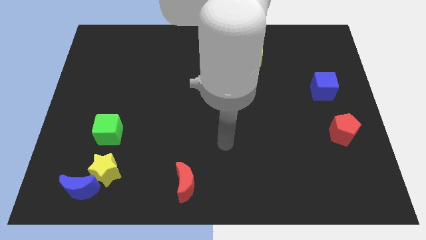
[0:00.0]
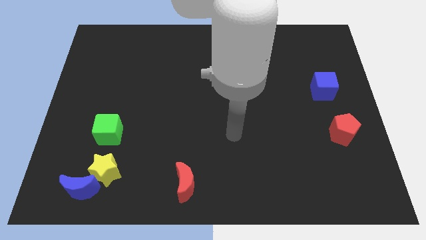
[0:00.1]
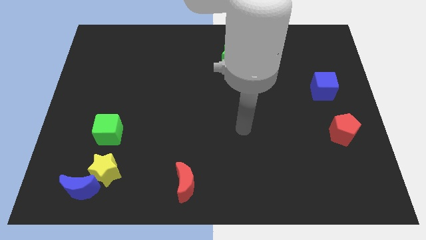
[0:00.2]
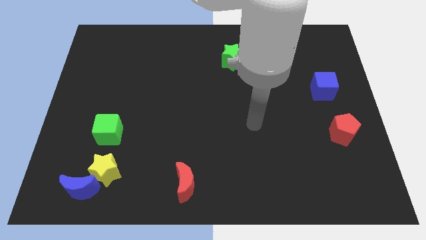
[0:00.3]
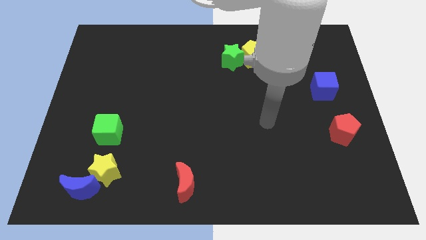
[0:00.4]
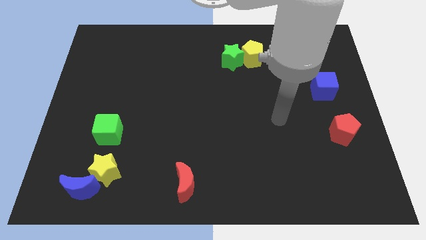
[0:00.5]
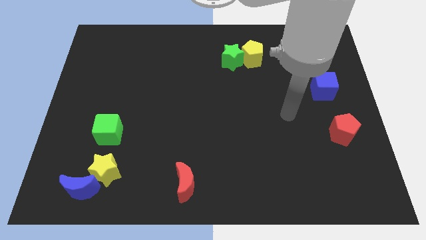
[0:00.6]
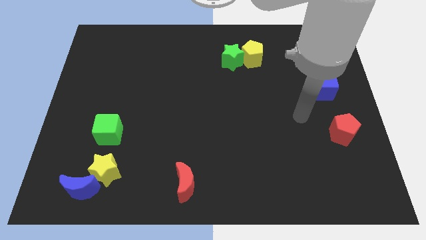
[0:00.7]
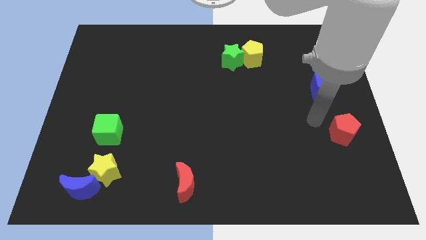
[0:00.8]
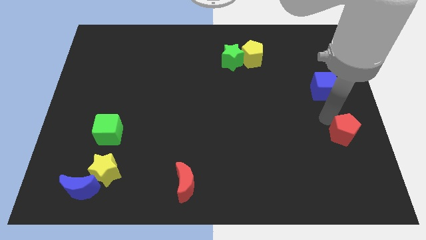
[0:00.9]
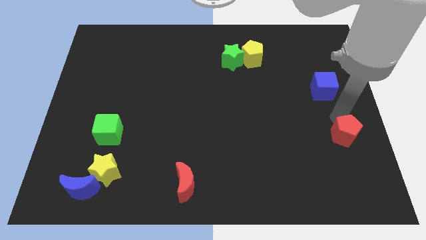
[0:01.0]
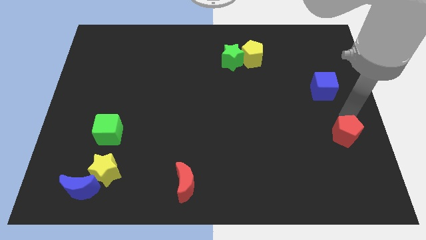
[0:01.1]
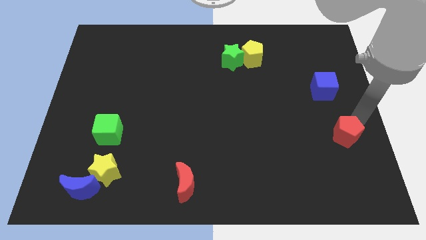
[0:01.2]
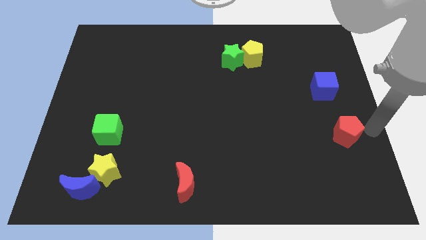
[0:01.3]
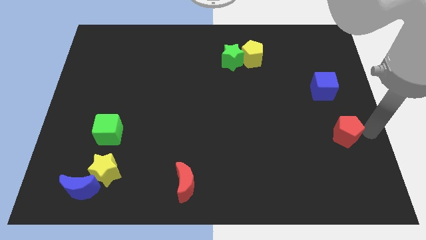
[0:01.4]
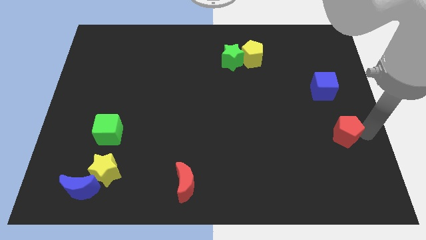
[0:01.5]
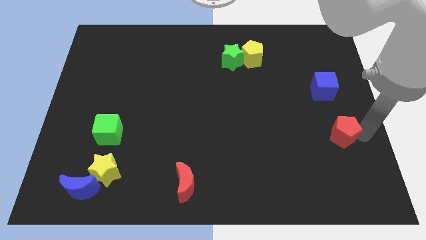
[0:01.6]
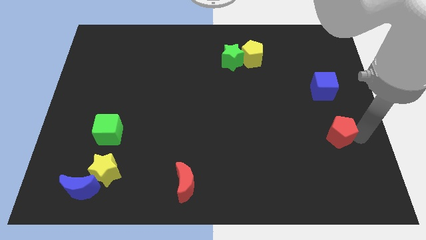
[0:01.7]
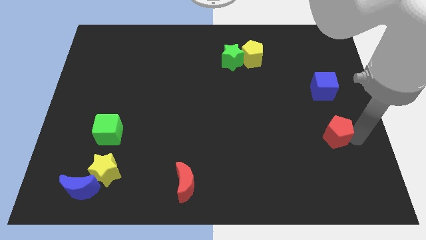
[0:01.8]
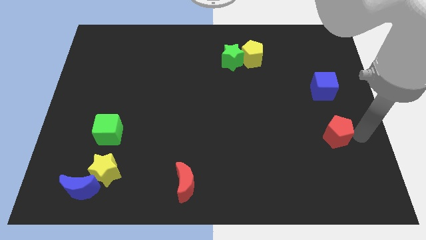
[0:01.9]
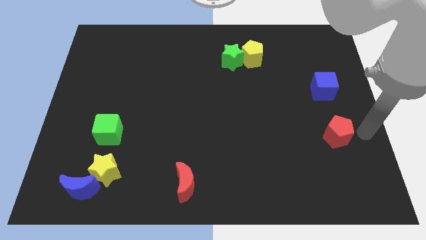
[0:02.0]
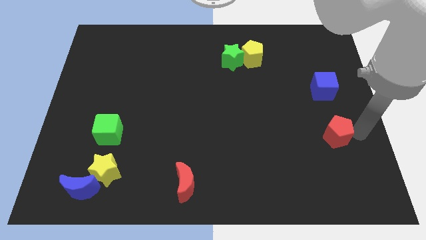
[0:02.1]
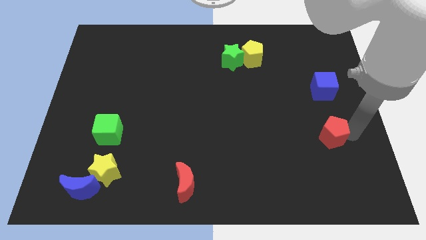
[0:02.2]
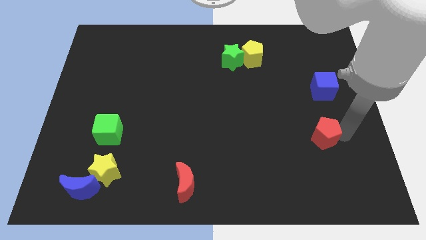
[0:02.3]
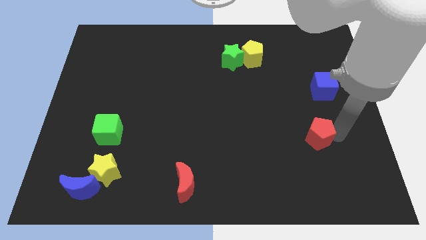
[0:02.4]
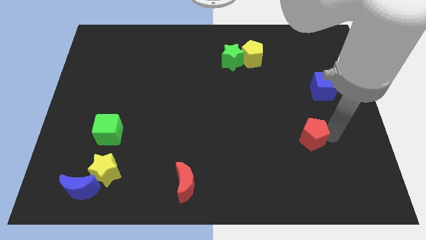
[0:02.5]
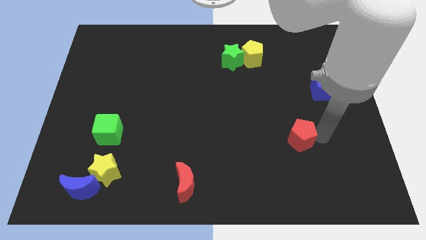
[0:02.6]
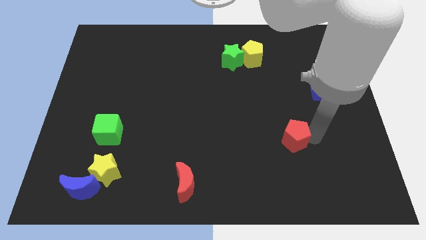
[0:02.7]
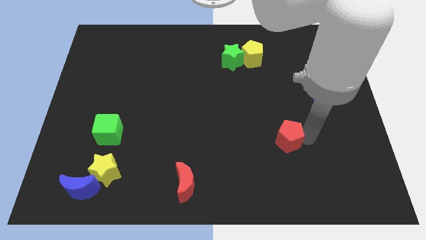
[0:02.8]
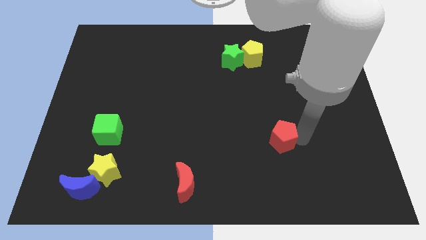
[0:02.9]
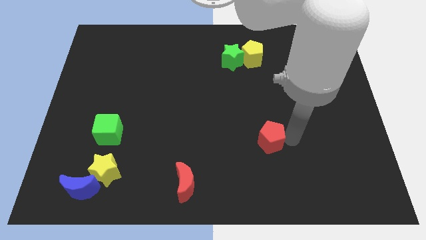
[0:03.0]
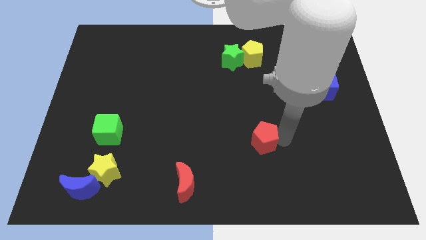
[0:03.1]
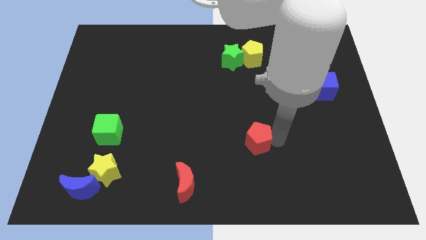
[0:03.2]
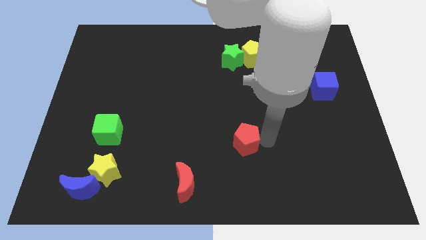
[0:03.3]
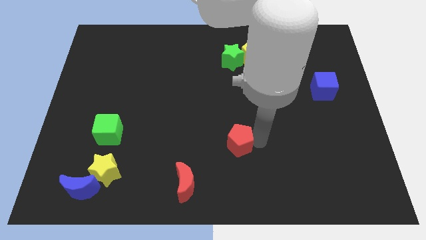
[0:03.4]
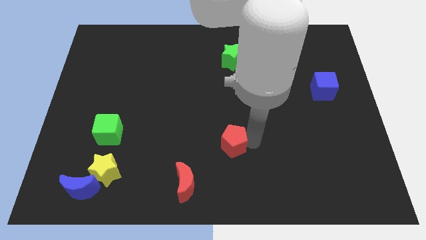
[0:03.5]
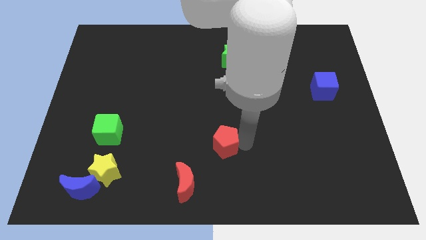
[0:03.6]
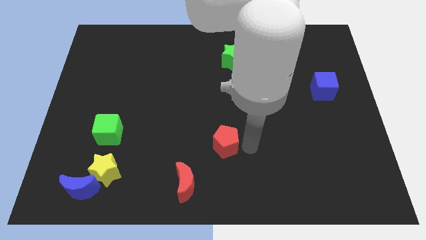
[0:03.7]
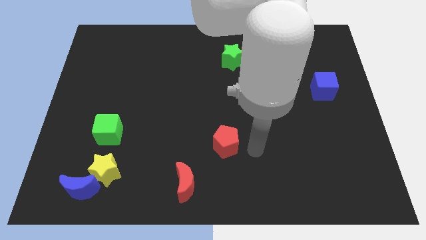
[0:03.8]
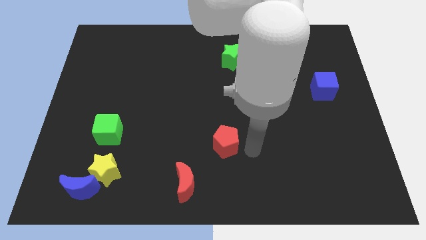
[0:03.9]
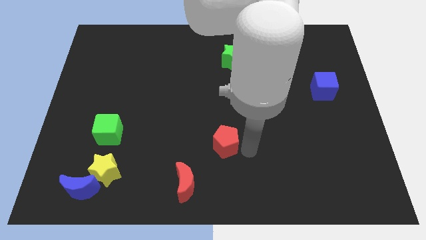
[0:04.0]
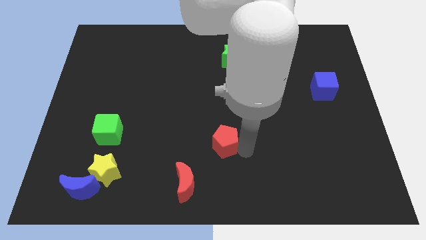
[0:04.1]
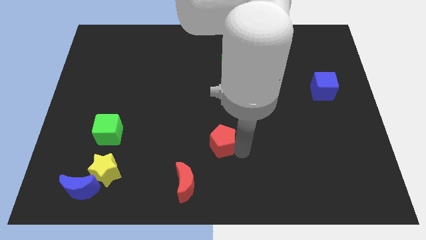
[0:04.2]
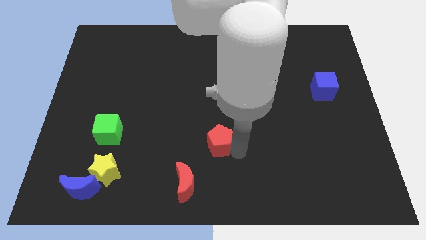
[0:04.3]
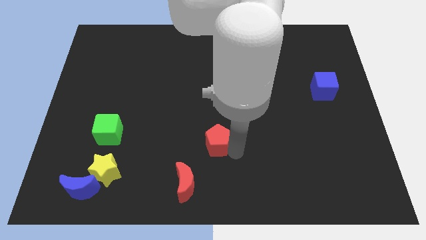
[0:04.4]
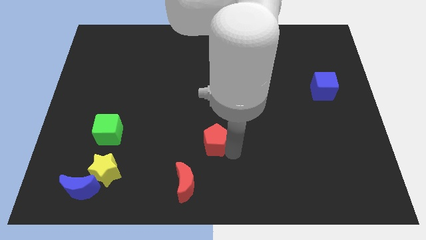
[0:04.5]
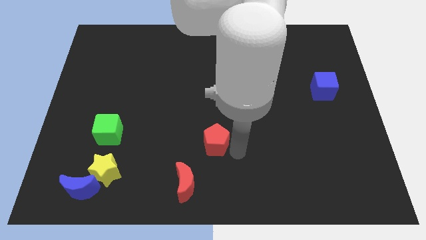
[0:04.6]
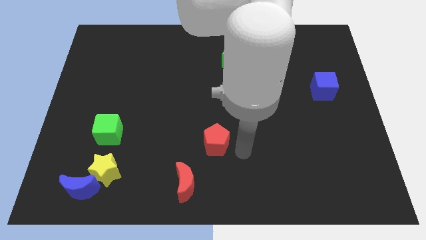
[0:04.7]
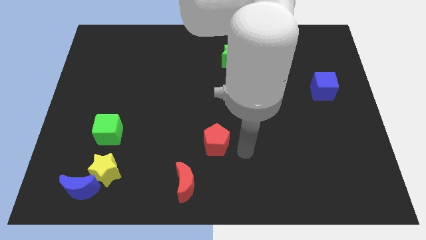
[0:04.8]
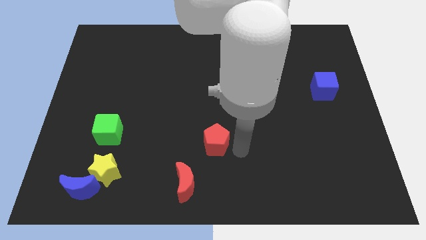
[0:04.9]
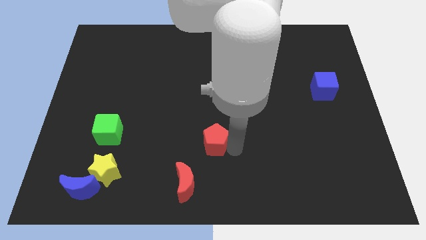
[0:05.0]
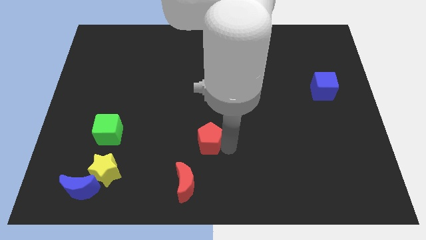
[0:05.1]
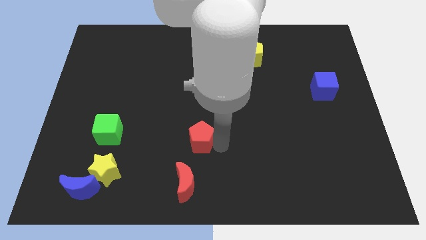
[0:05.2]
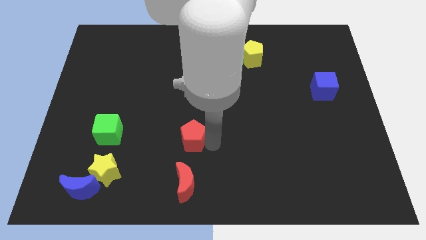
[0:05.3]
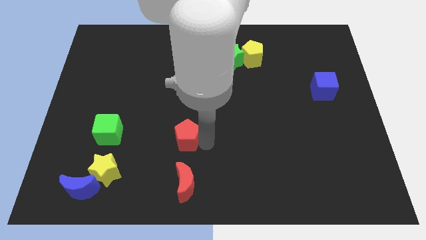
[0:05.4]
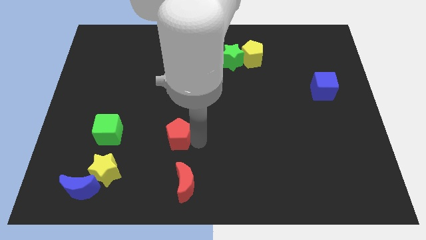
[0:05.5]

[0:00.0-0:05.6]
put the red pentagon to the right of the green cube

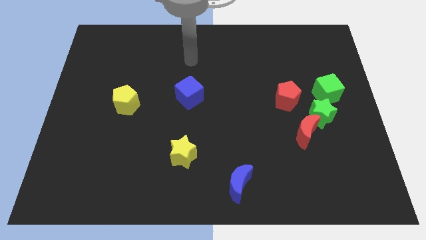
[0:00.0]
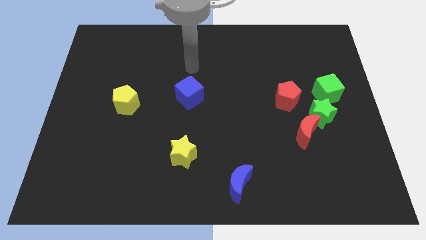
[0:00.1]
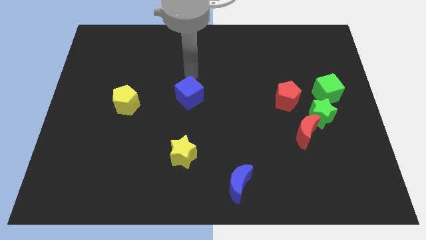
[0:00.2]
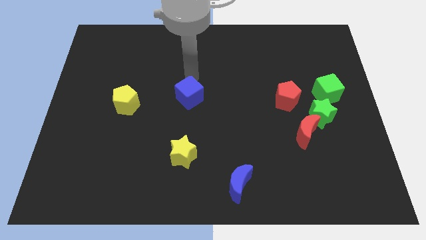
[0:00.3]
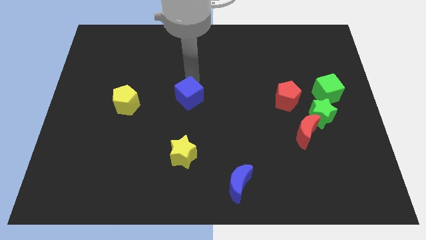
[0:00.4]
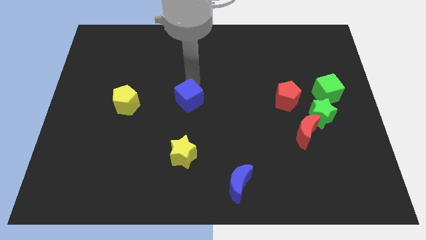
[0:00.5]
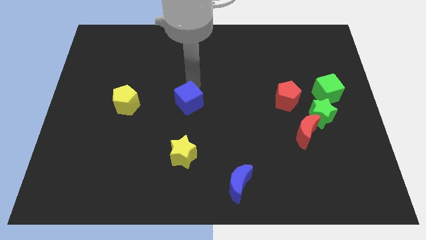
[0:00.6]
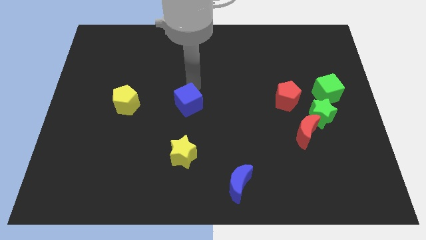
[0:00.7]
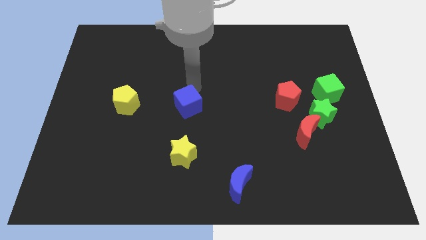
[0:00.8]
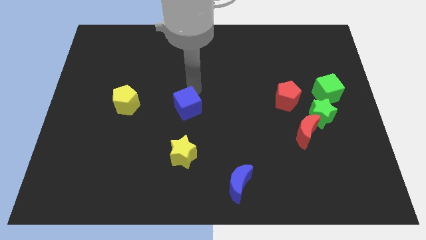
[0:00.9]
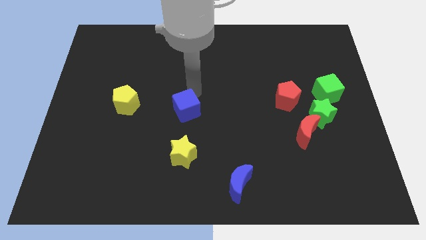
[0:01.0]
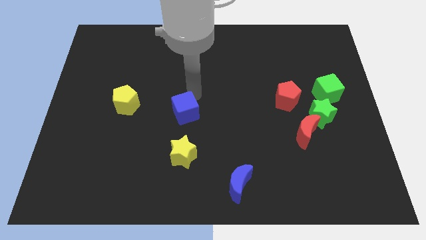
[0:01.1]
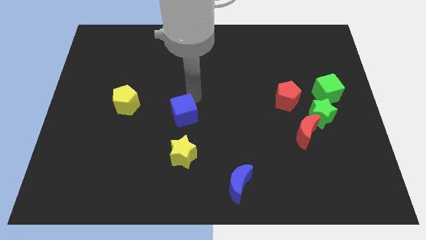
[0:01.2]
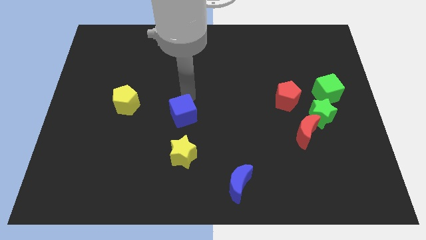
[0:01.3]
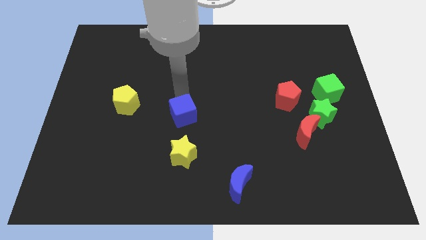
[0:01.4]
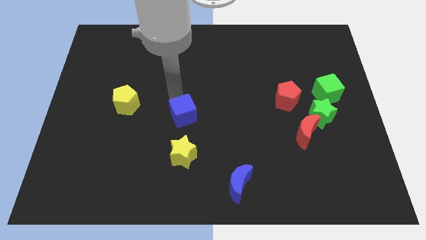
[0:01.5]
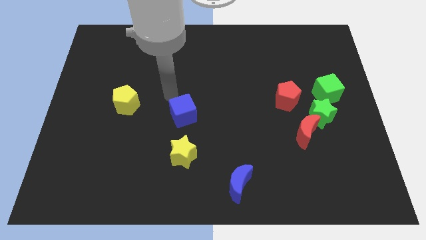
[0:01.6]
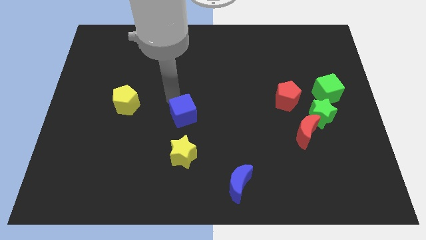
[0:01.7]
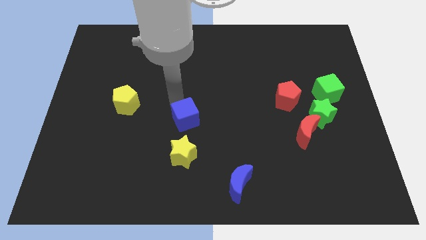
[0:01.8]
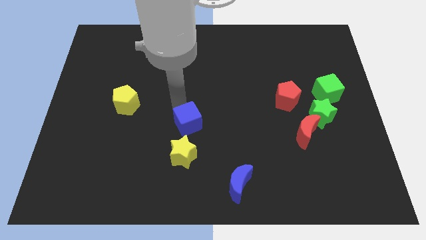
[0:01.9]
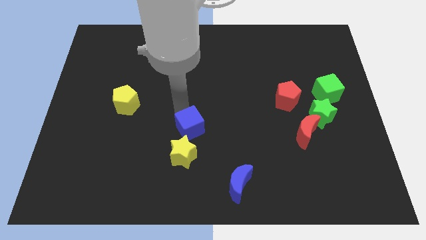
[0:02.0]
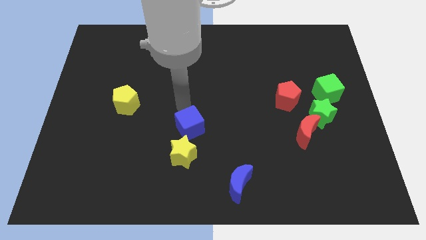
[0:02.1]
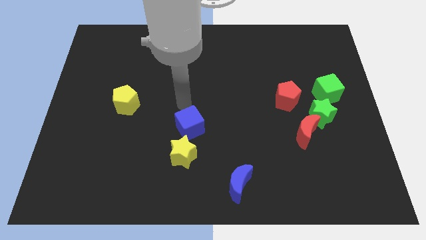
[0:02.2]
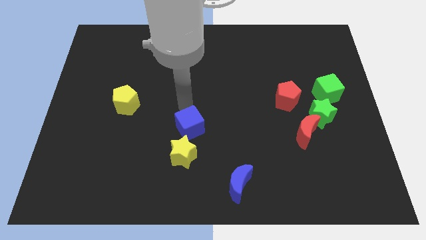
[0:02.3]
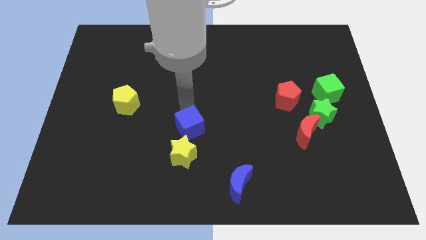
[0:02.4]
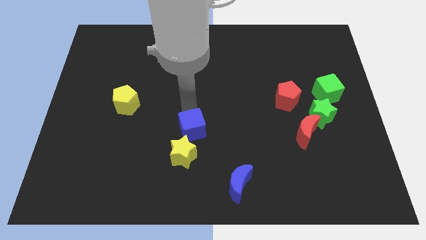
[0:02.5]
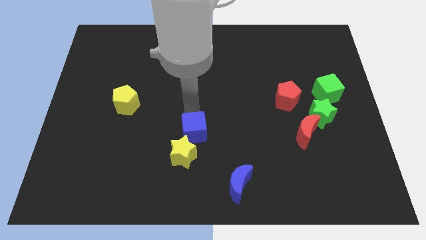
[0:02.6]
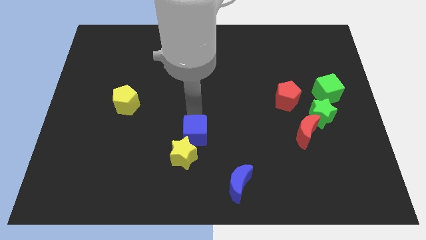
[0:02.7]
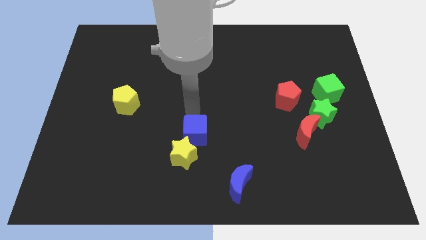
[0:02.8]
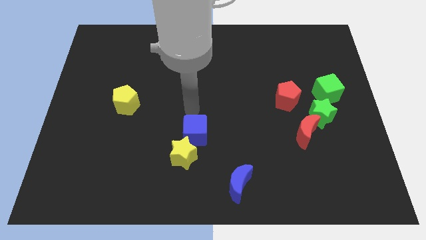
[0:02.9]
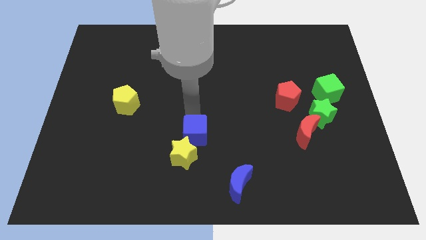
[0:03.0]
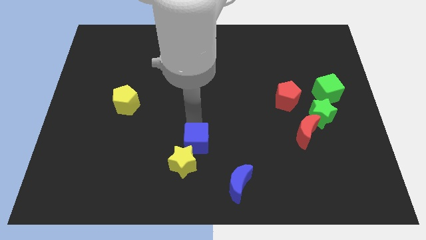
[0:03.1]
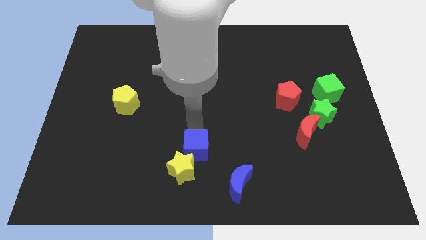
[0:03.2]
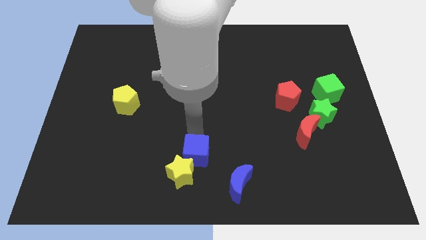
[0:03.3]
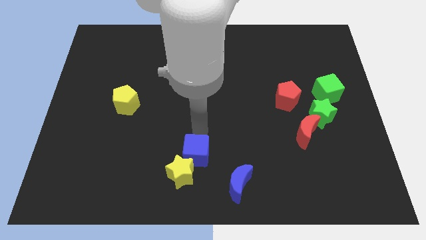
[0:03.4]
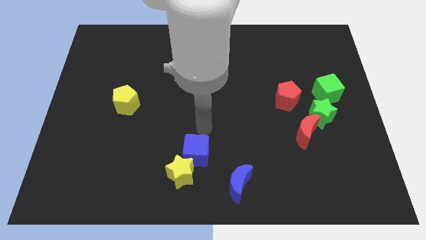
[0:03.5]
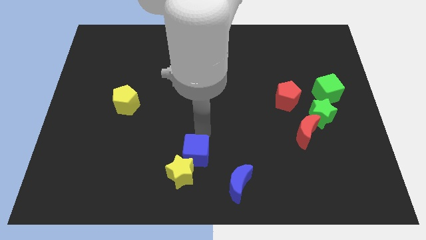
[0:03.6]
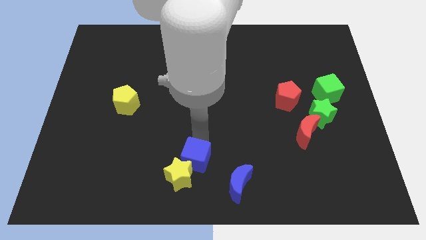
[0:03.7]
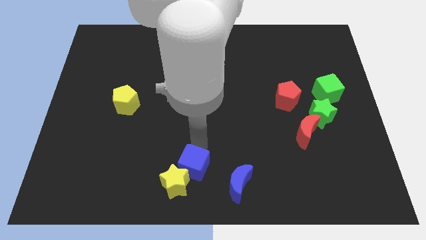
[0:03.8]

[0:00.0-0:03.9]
put the blue cube just left of the blue moon
